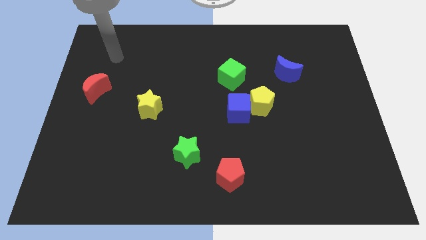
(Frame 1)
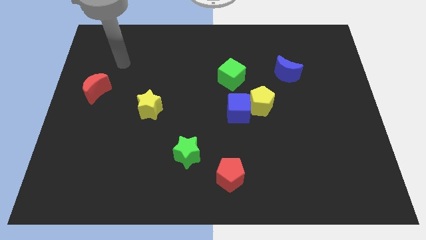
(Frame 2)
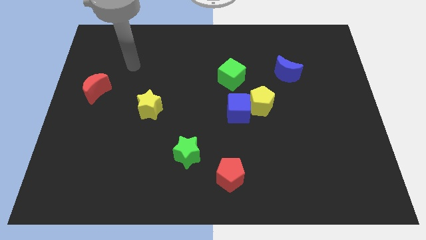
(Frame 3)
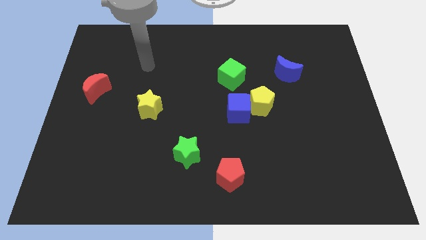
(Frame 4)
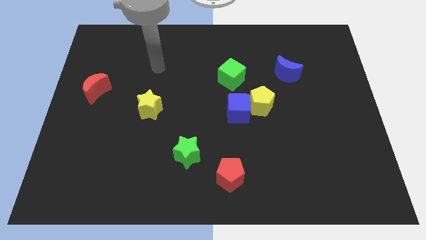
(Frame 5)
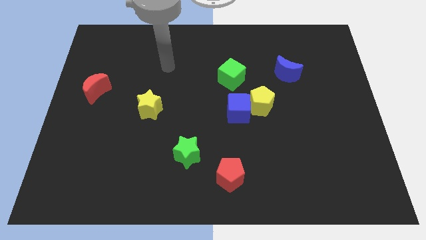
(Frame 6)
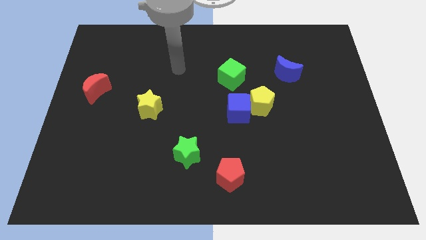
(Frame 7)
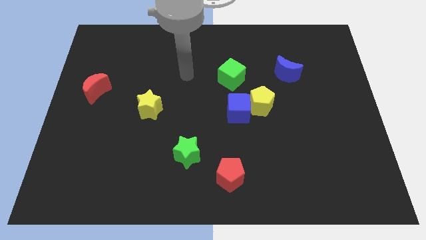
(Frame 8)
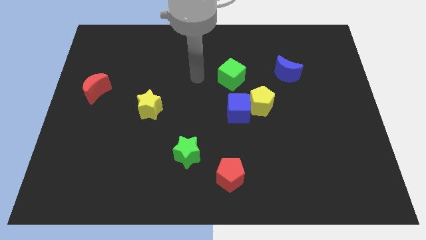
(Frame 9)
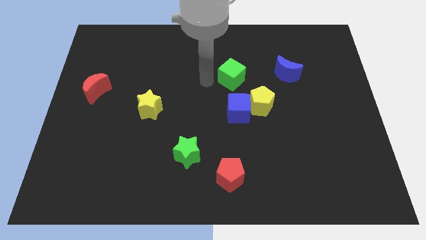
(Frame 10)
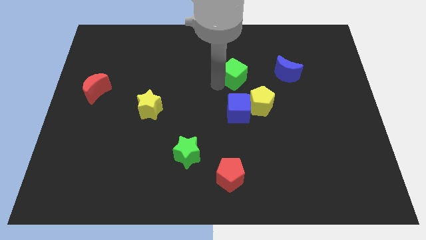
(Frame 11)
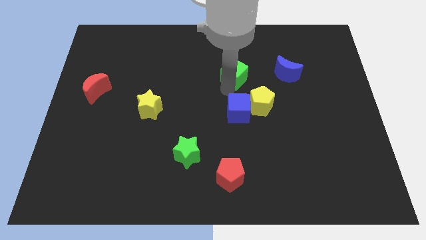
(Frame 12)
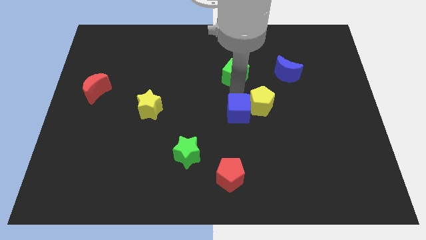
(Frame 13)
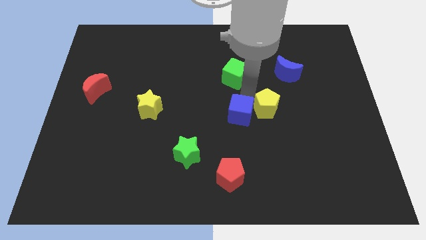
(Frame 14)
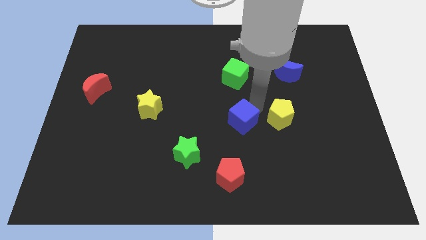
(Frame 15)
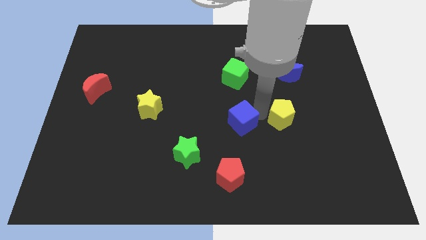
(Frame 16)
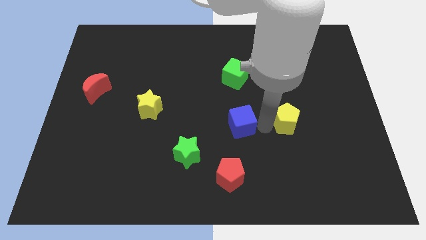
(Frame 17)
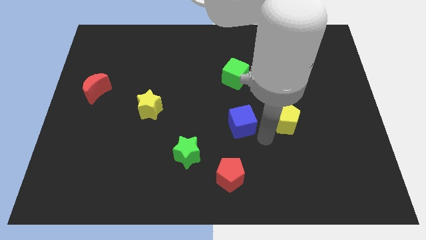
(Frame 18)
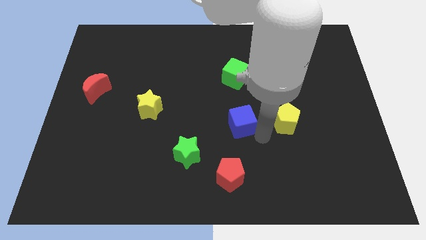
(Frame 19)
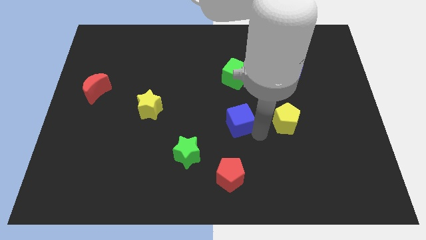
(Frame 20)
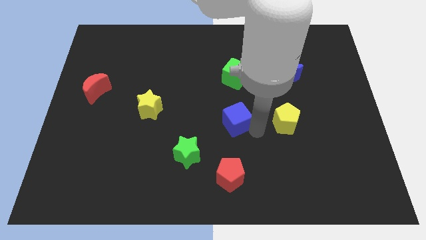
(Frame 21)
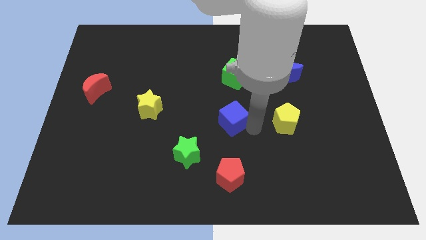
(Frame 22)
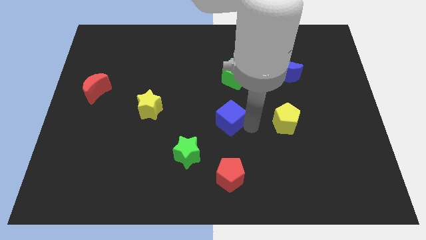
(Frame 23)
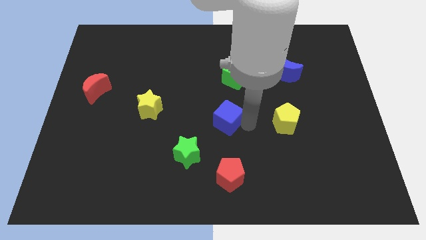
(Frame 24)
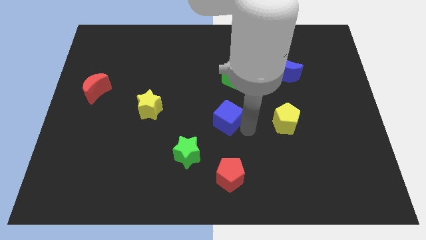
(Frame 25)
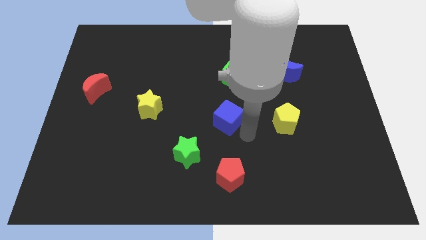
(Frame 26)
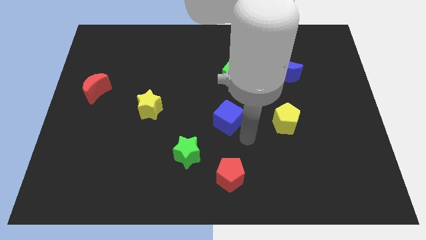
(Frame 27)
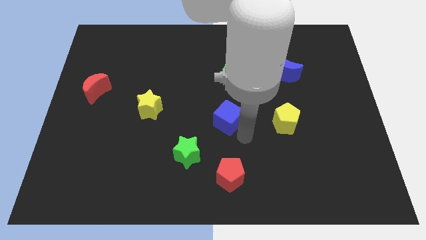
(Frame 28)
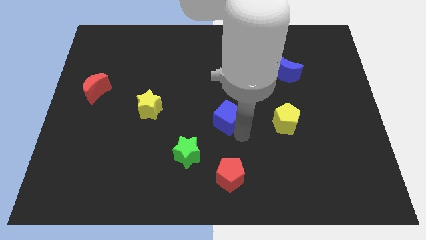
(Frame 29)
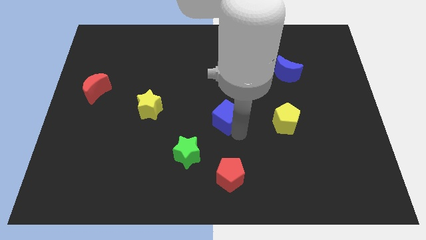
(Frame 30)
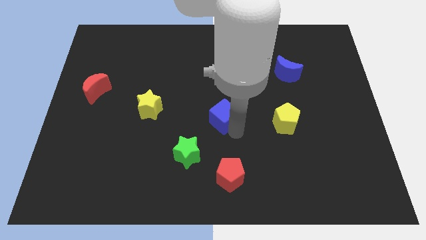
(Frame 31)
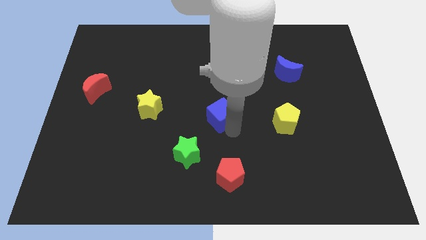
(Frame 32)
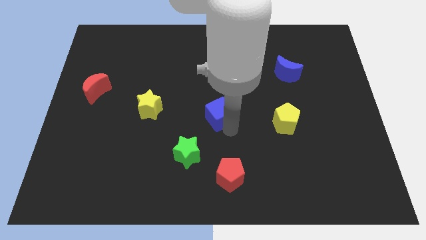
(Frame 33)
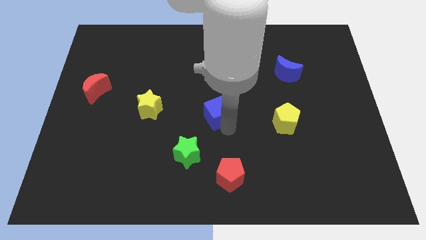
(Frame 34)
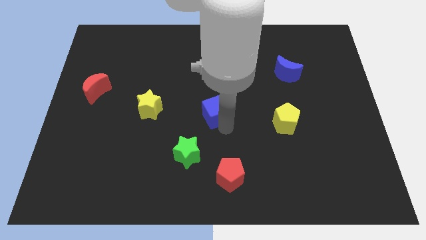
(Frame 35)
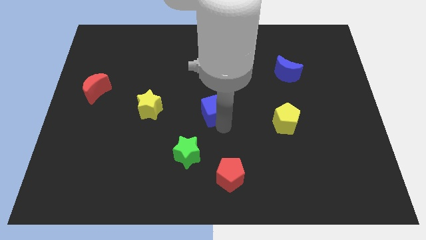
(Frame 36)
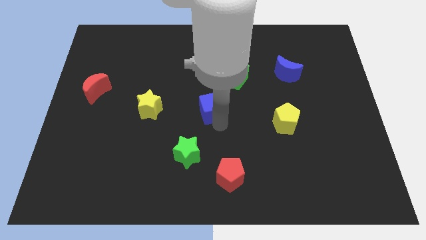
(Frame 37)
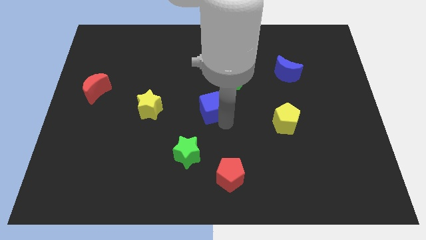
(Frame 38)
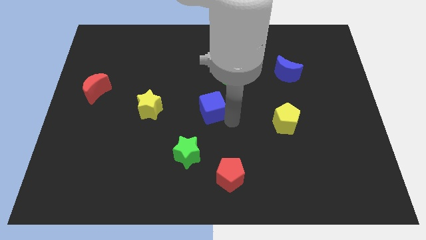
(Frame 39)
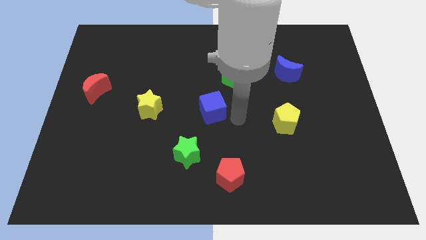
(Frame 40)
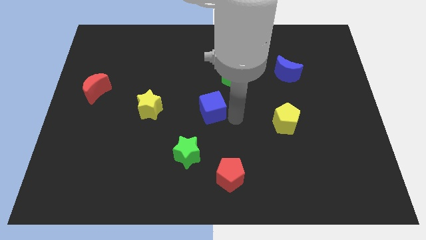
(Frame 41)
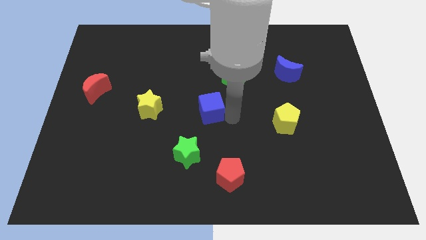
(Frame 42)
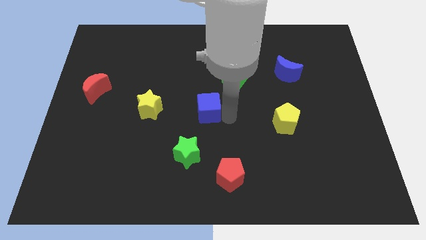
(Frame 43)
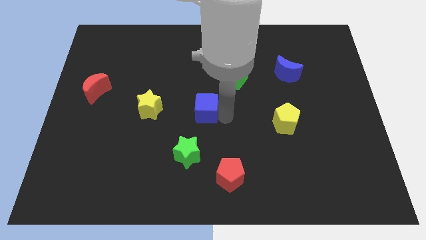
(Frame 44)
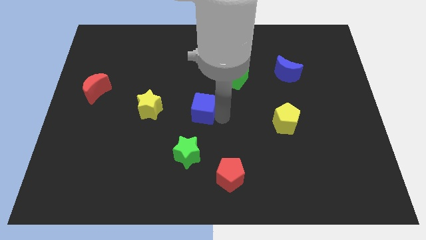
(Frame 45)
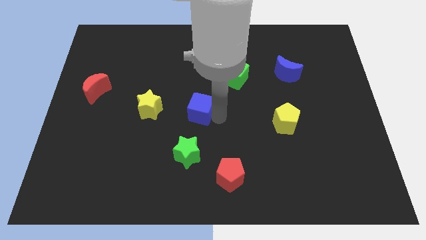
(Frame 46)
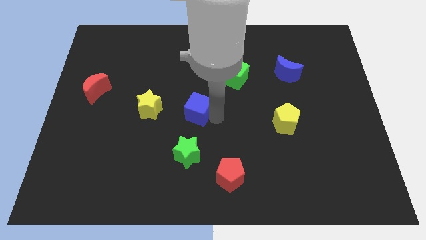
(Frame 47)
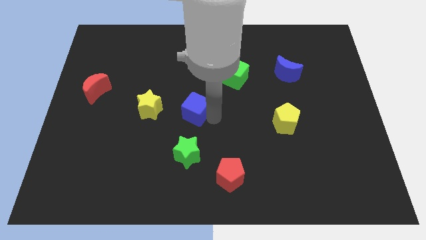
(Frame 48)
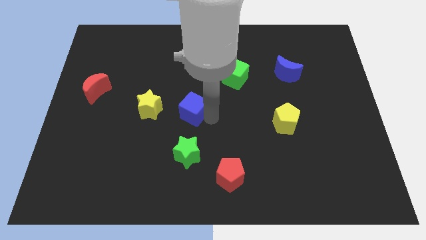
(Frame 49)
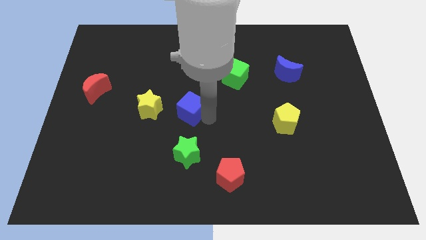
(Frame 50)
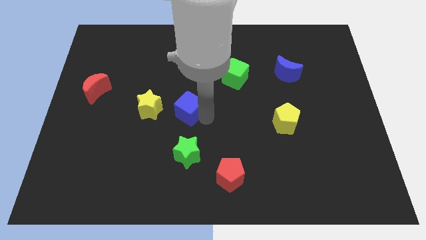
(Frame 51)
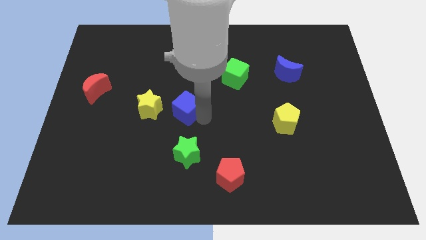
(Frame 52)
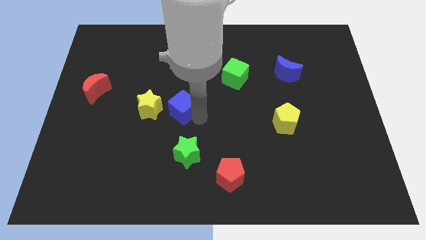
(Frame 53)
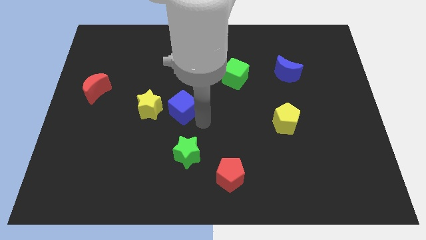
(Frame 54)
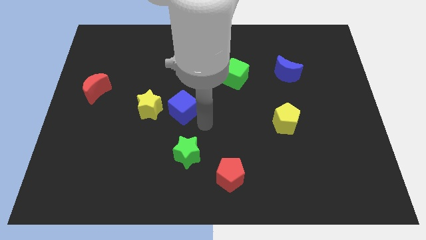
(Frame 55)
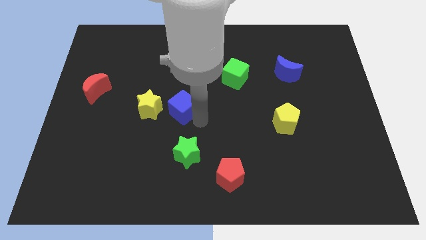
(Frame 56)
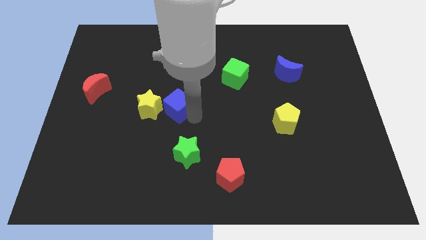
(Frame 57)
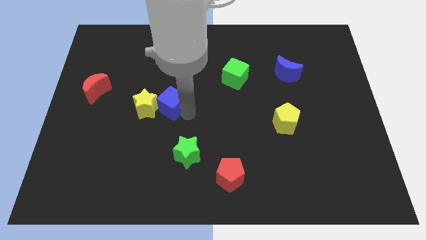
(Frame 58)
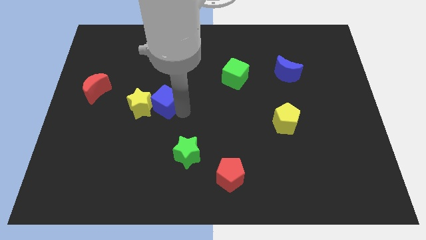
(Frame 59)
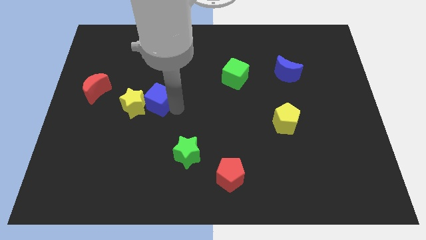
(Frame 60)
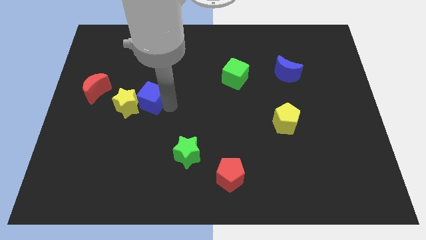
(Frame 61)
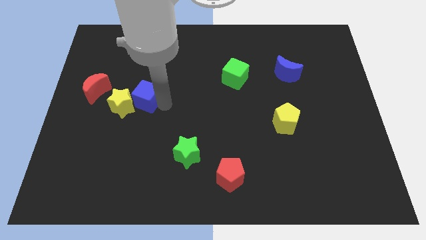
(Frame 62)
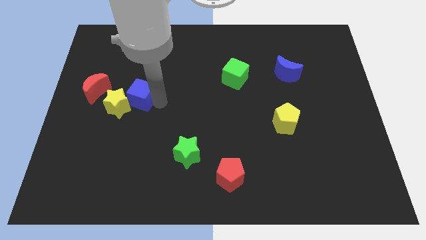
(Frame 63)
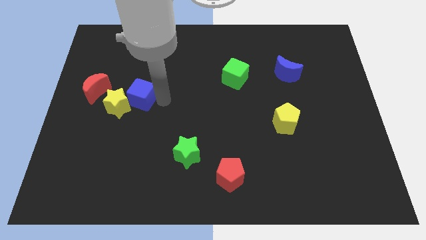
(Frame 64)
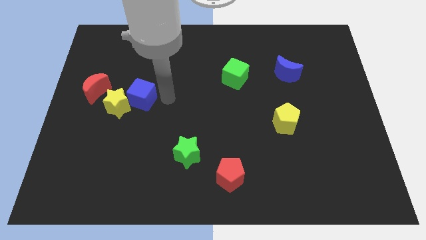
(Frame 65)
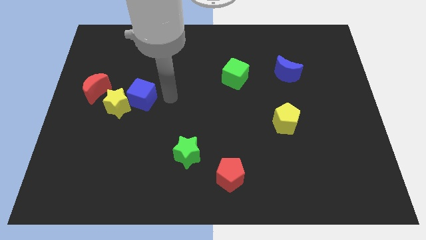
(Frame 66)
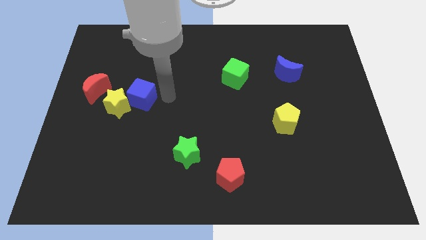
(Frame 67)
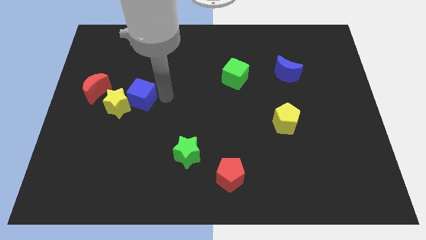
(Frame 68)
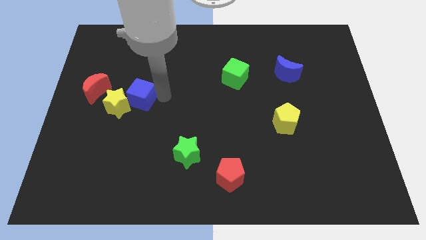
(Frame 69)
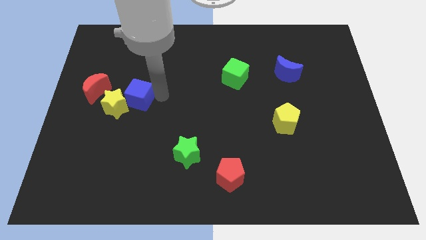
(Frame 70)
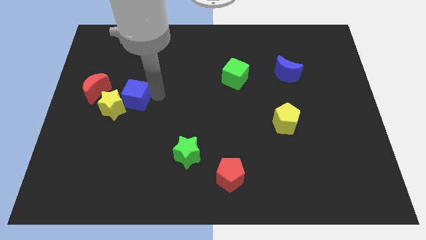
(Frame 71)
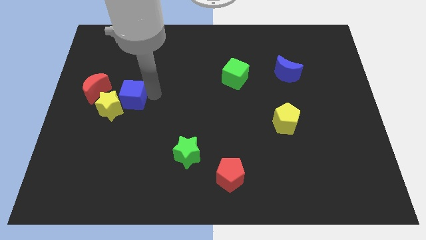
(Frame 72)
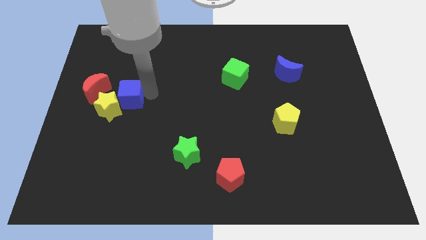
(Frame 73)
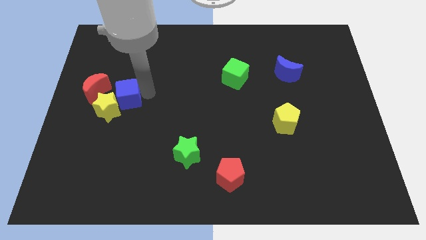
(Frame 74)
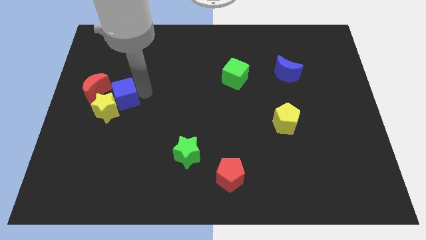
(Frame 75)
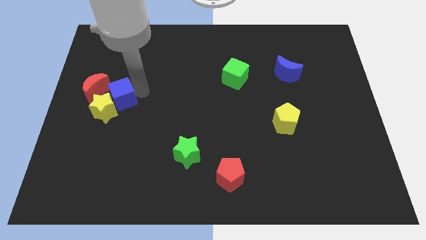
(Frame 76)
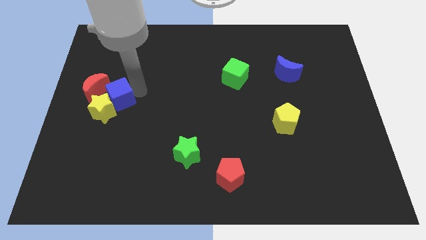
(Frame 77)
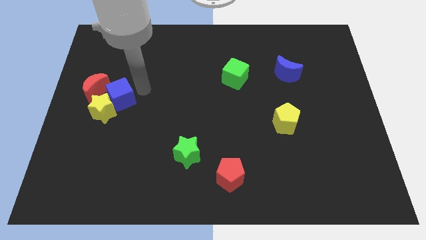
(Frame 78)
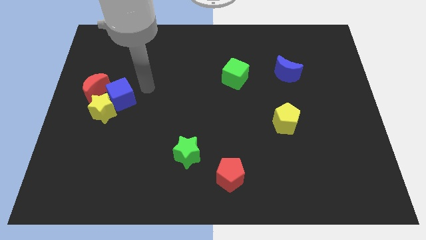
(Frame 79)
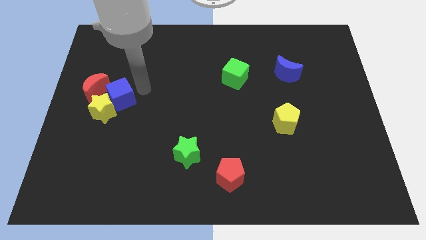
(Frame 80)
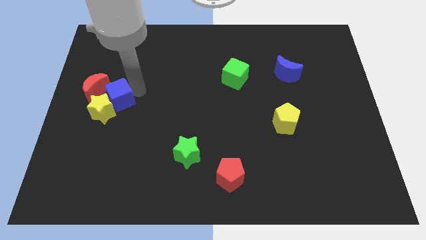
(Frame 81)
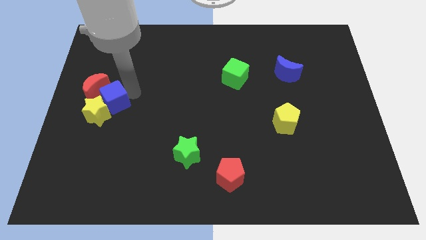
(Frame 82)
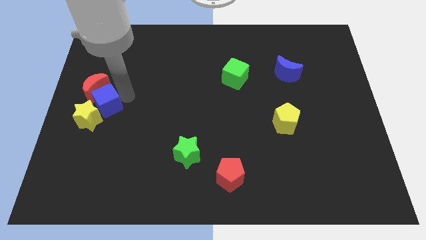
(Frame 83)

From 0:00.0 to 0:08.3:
move the blue cube to the left side
